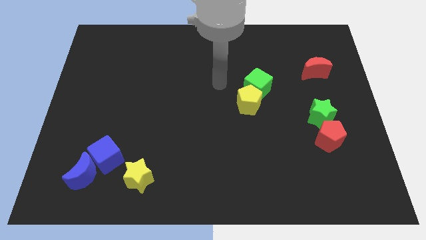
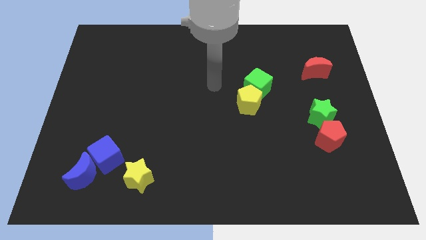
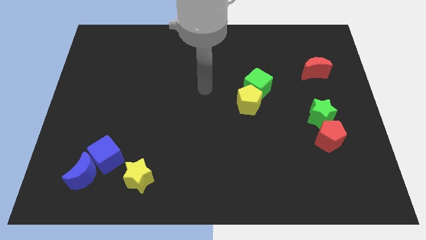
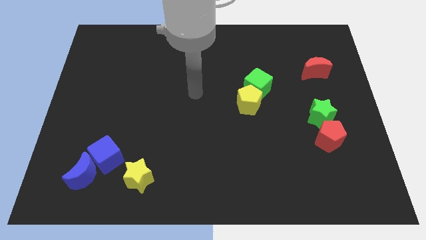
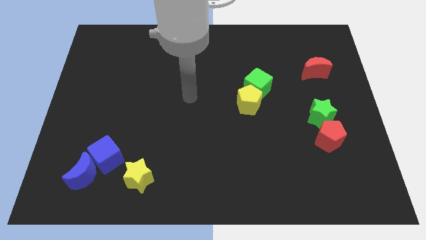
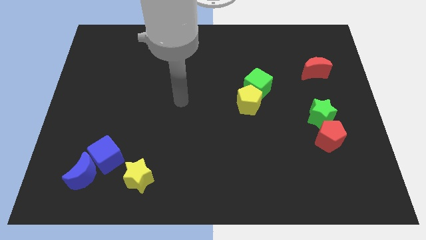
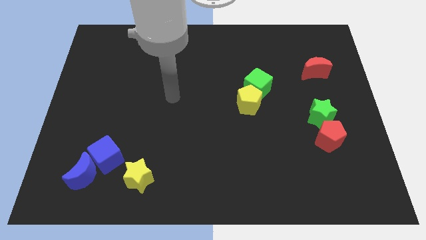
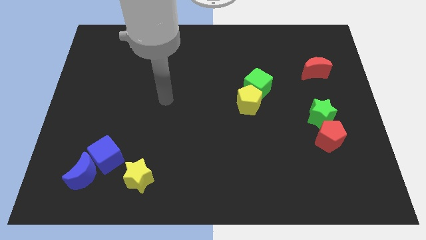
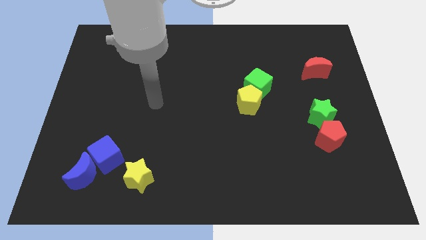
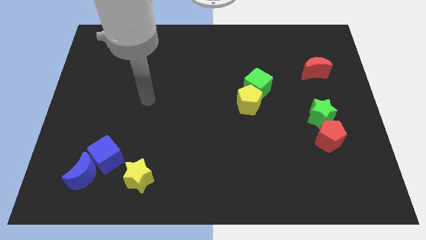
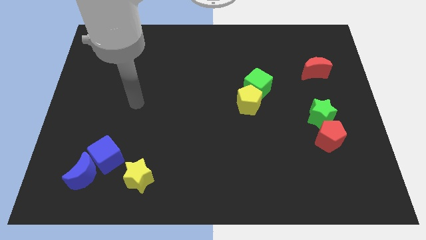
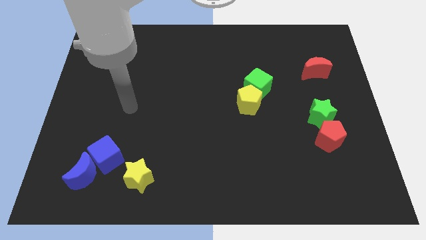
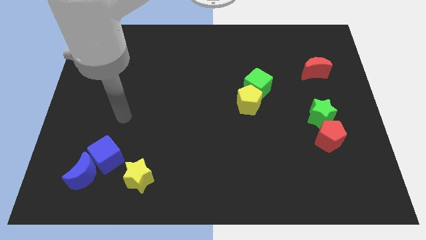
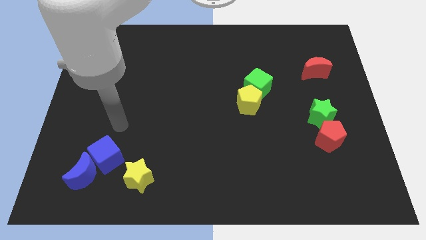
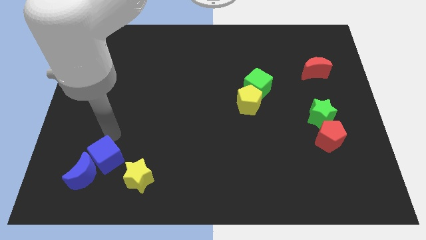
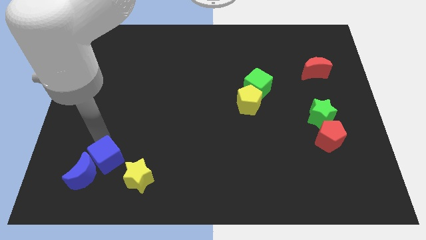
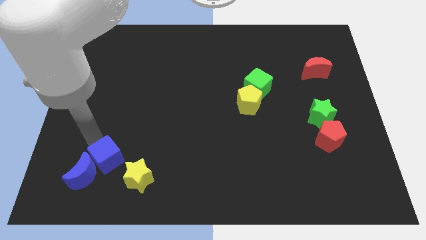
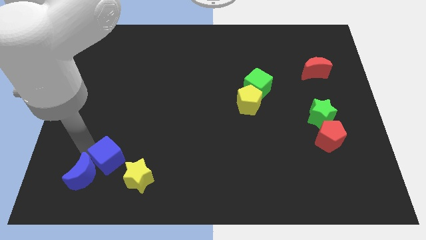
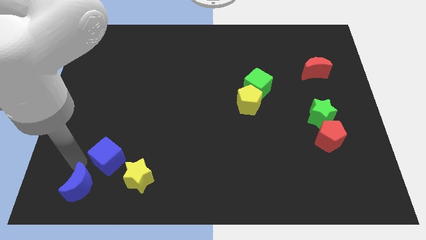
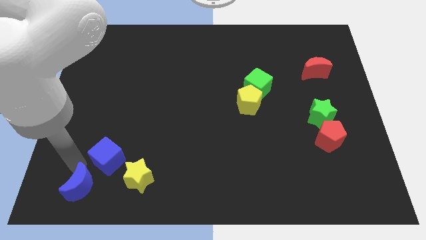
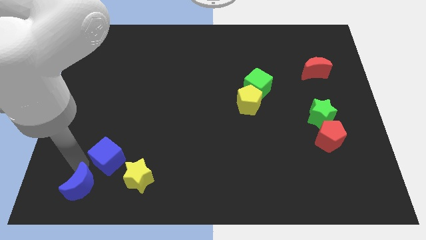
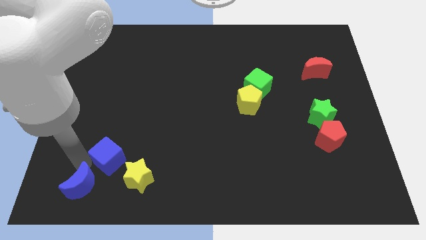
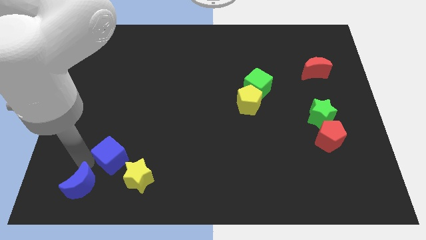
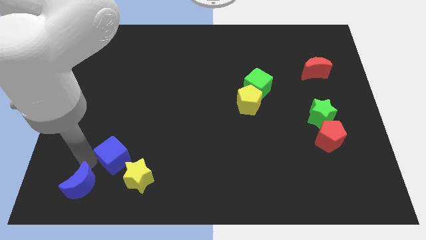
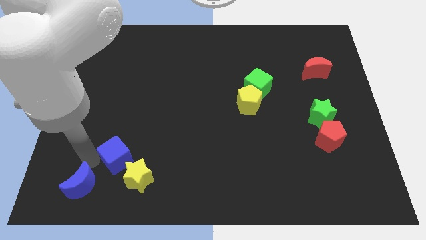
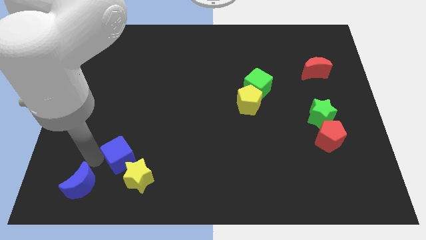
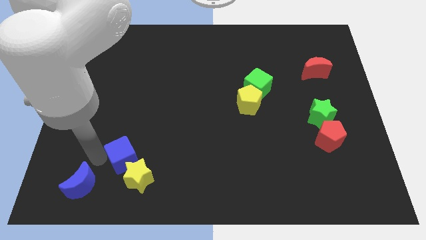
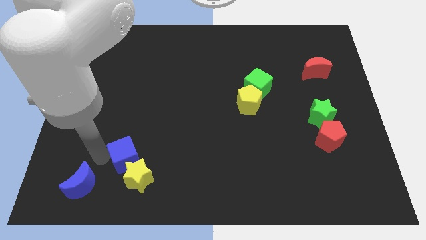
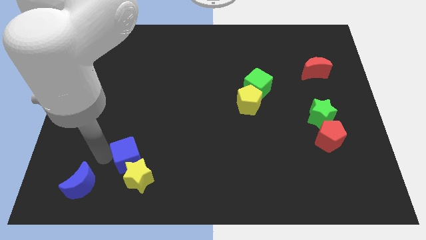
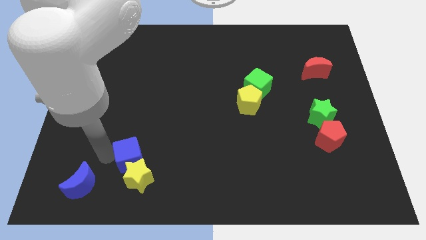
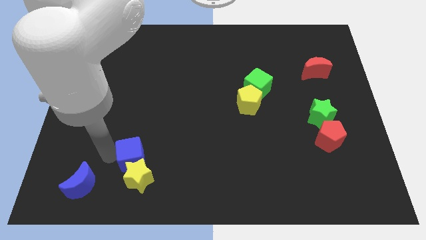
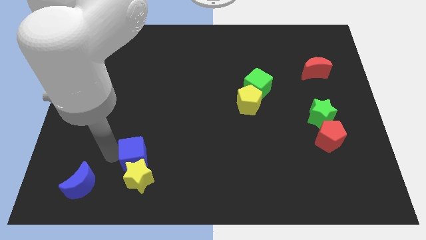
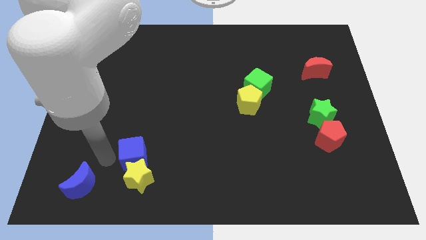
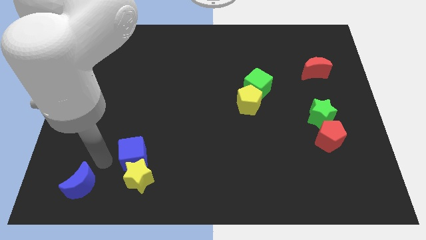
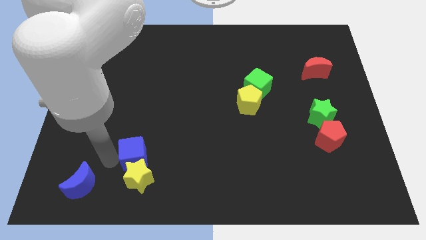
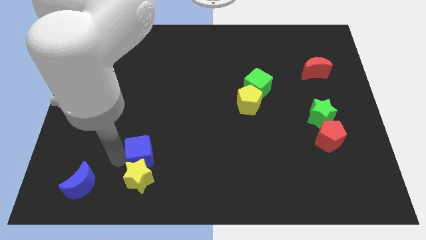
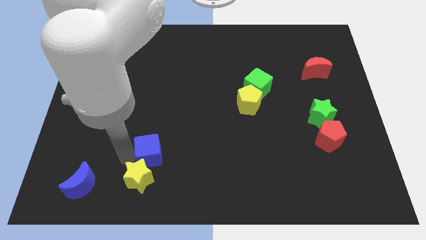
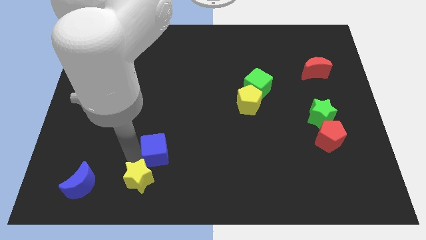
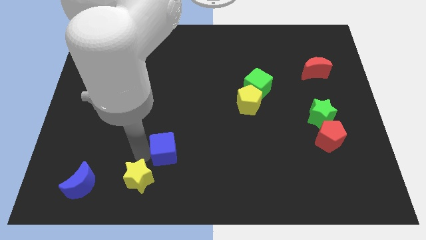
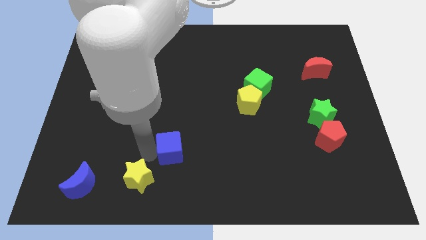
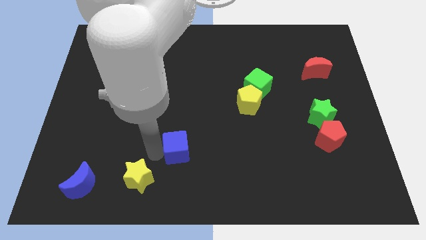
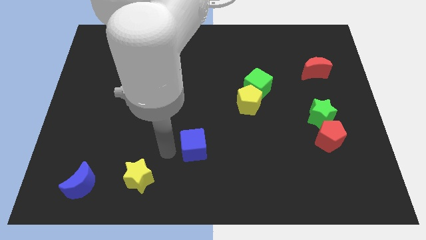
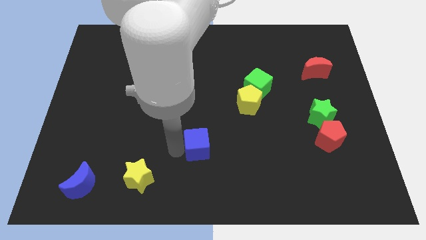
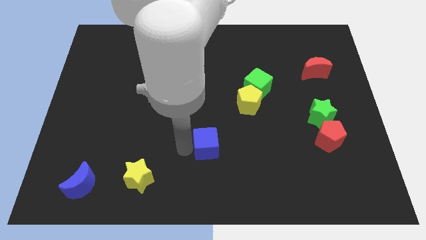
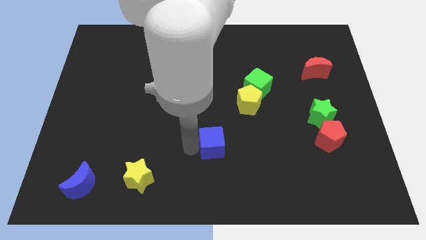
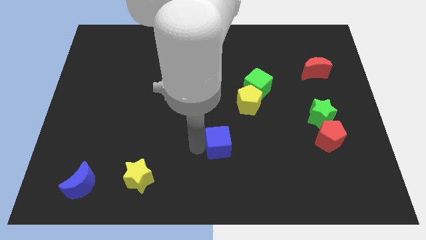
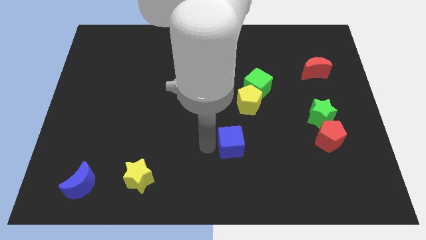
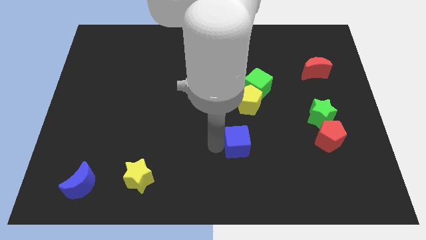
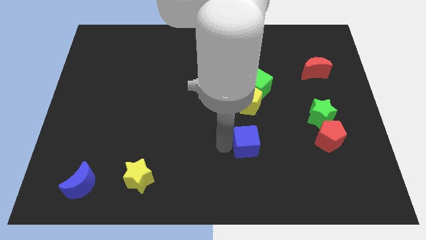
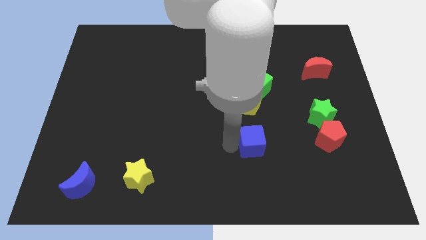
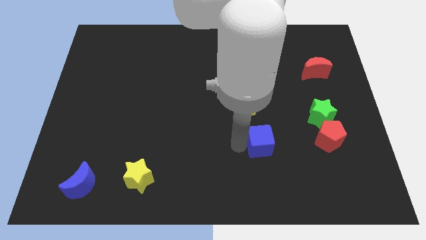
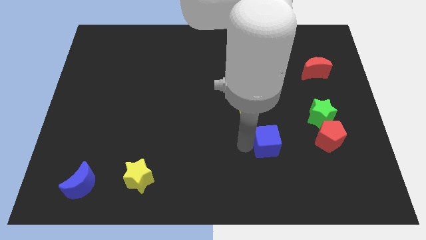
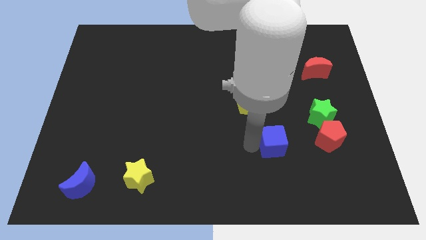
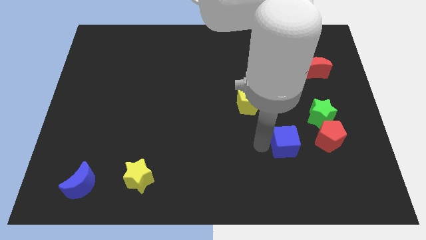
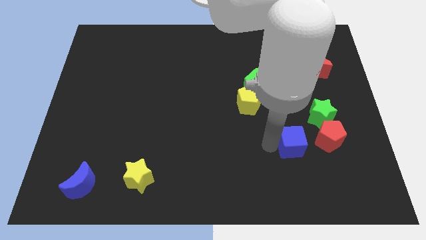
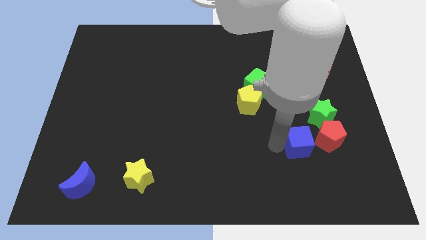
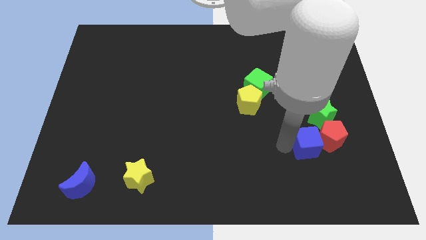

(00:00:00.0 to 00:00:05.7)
push the blue cube to the red pentagon

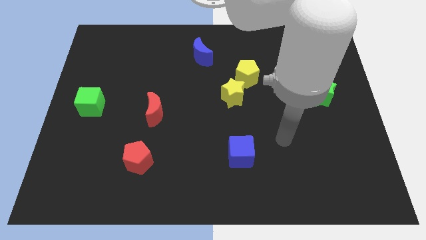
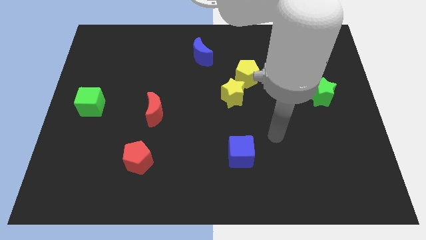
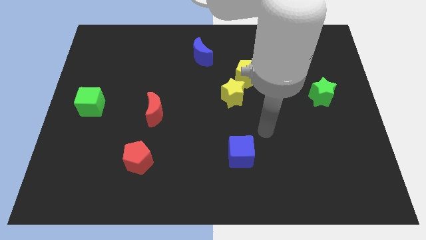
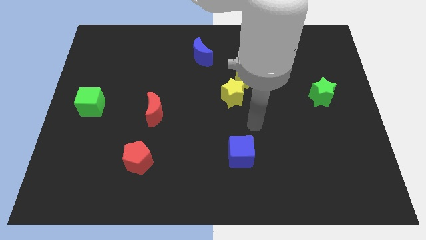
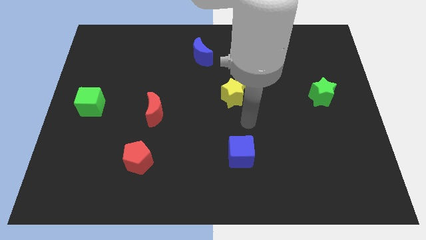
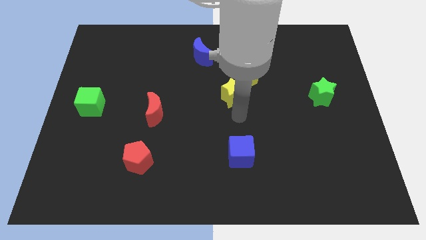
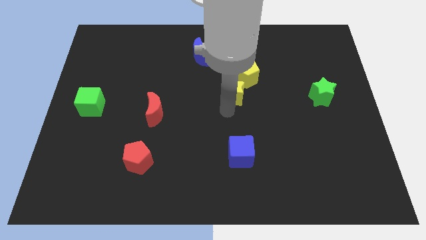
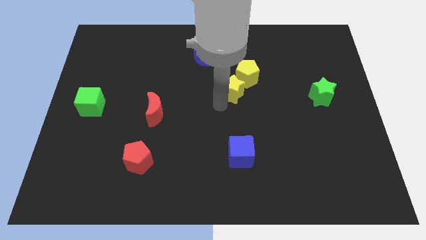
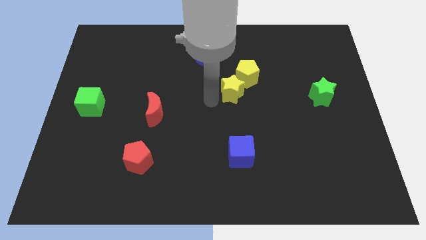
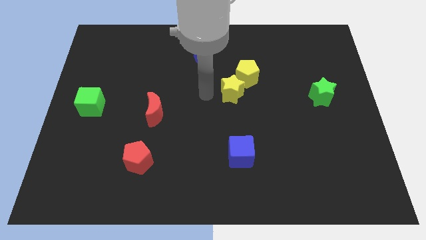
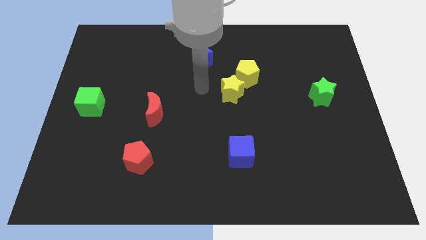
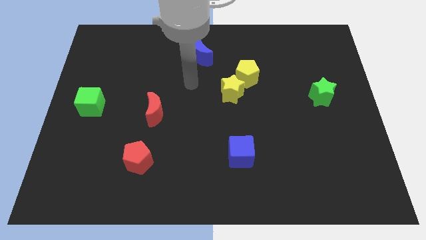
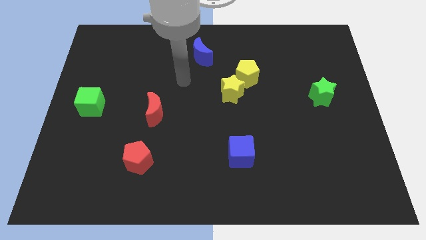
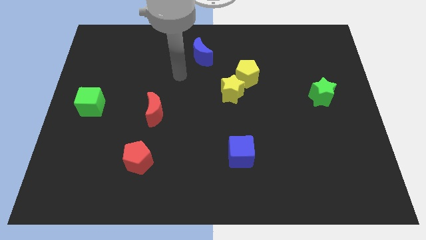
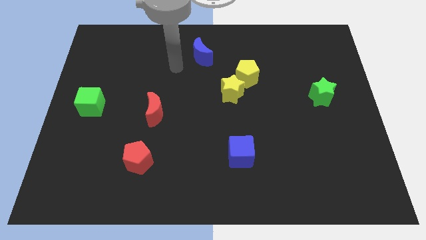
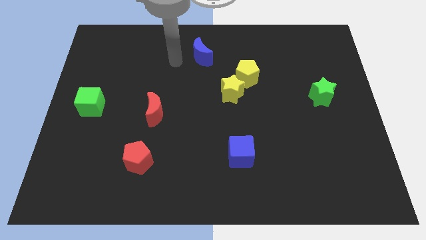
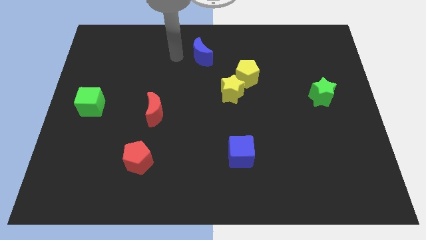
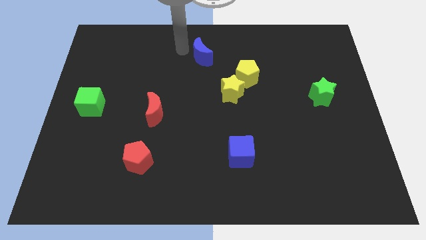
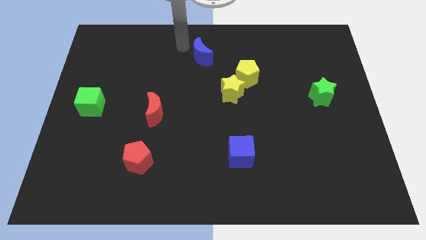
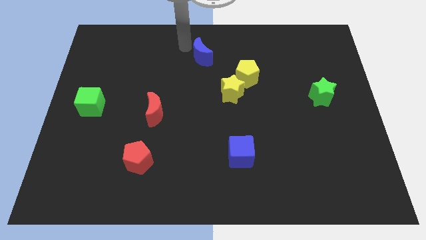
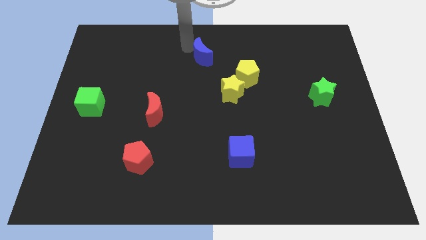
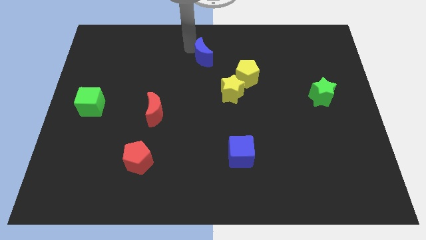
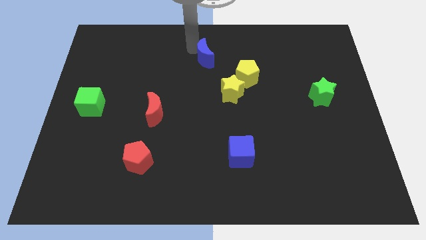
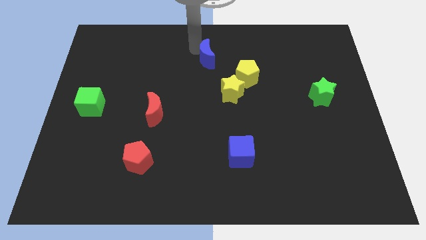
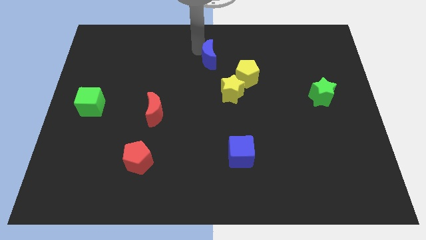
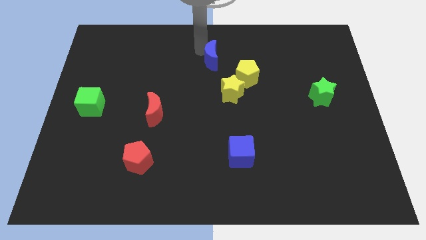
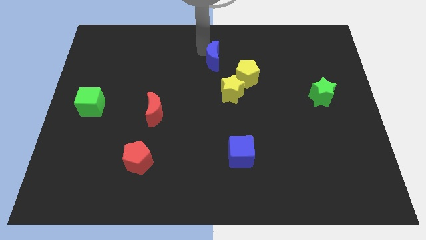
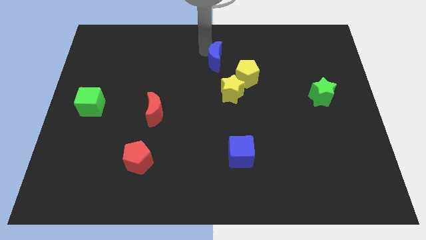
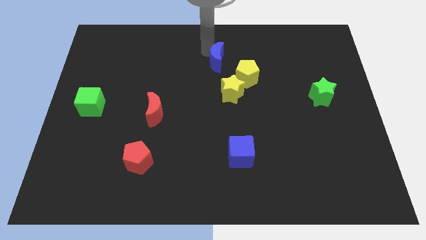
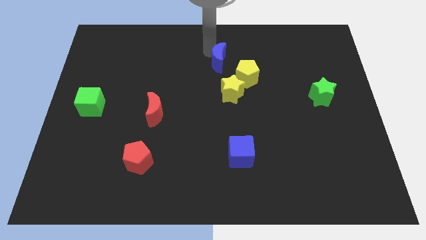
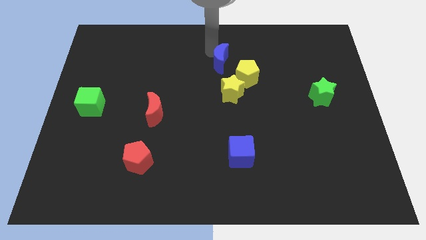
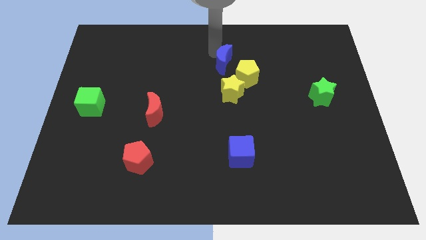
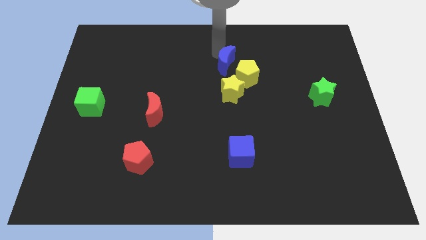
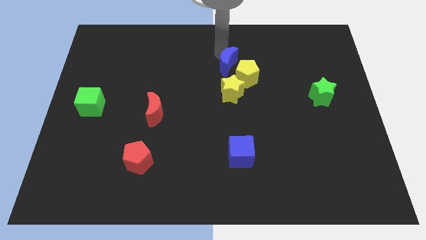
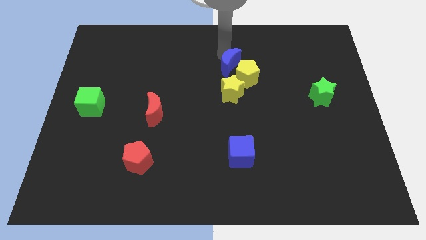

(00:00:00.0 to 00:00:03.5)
move the blue moon towards the yellow pentagon
